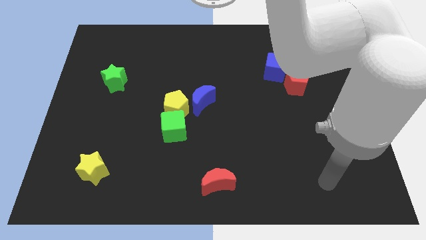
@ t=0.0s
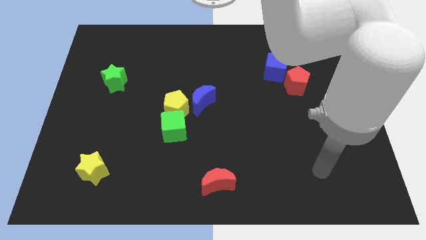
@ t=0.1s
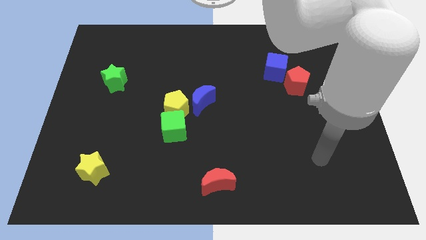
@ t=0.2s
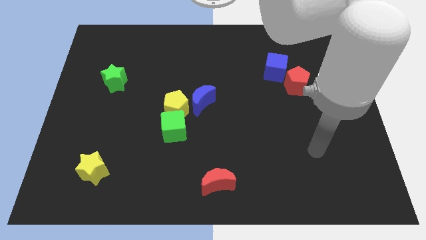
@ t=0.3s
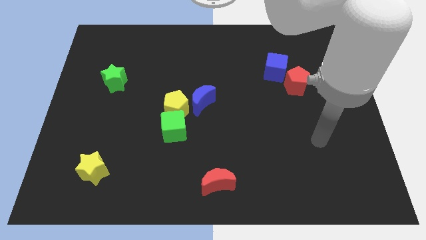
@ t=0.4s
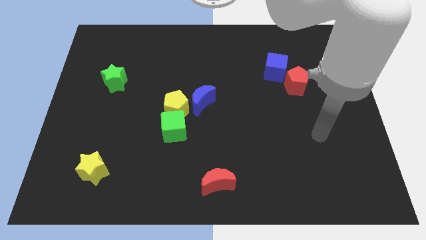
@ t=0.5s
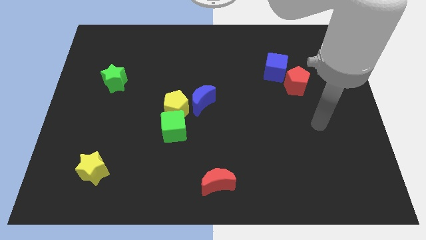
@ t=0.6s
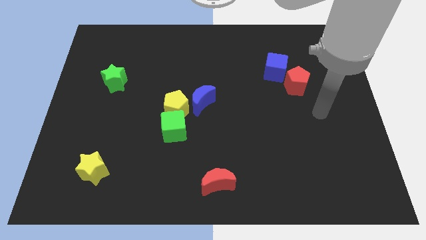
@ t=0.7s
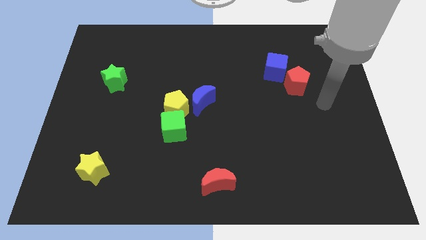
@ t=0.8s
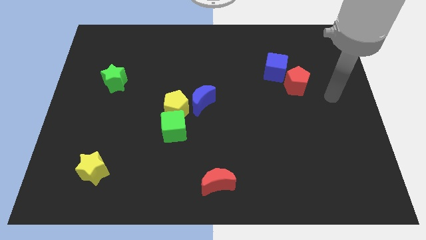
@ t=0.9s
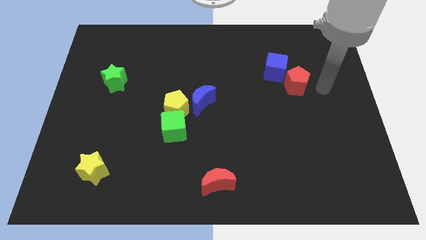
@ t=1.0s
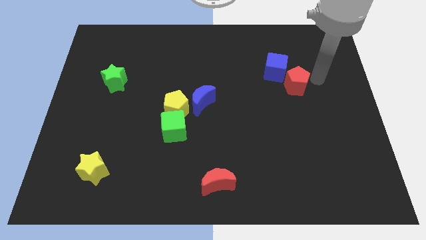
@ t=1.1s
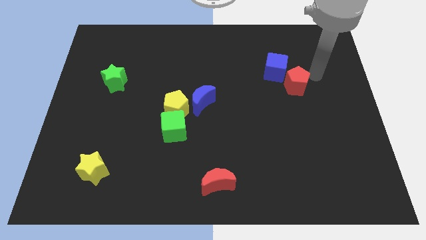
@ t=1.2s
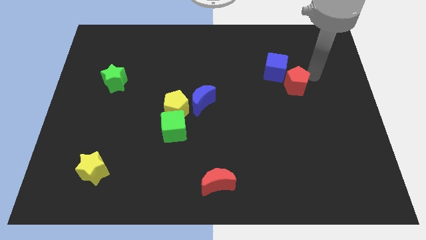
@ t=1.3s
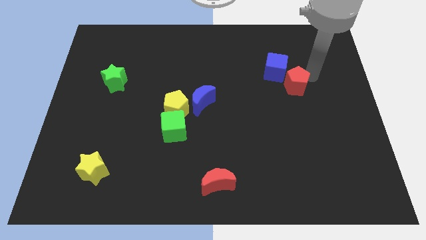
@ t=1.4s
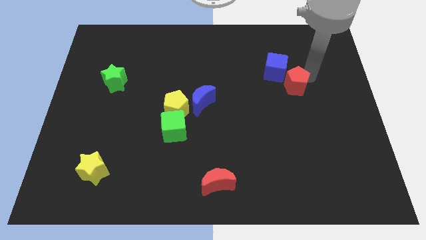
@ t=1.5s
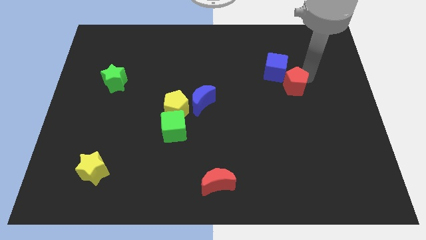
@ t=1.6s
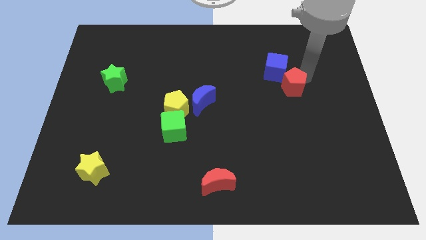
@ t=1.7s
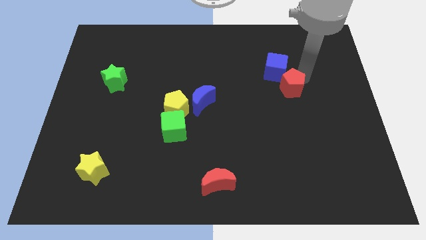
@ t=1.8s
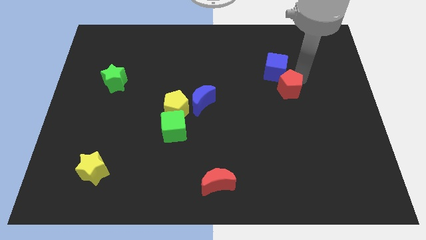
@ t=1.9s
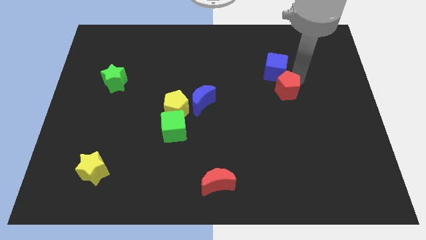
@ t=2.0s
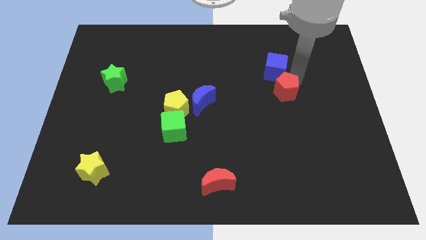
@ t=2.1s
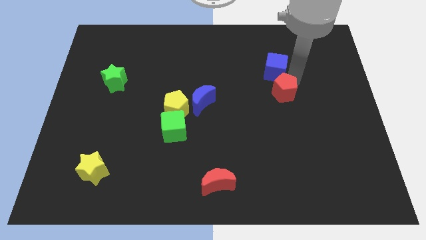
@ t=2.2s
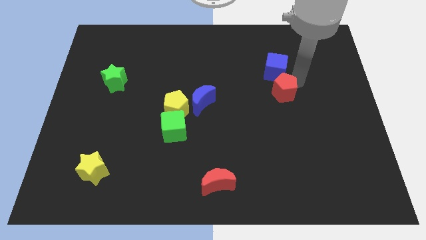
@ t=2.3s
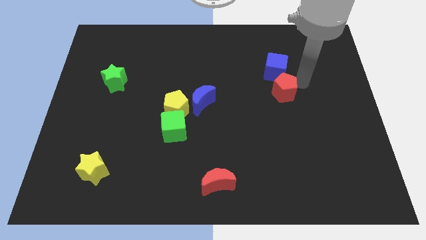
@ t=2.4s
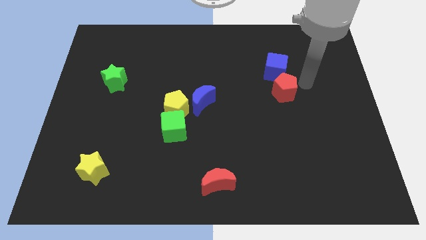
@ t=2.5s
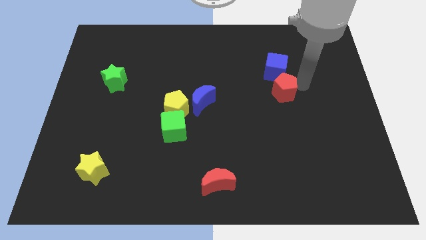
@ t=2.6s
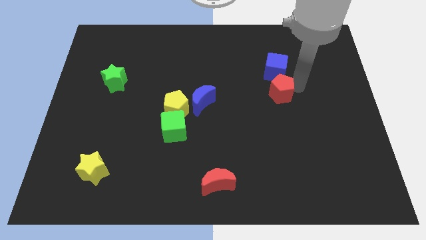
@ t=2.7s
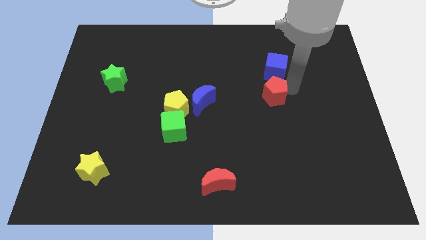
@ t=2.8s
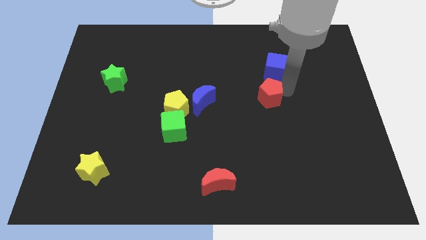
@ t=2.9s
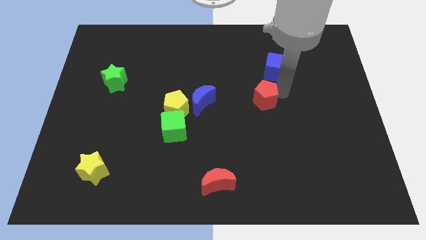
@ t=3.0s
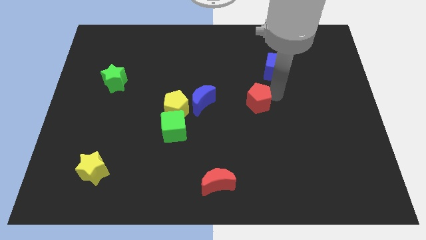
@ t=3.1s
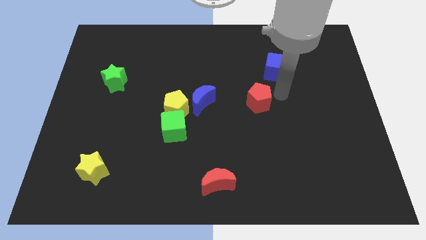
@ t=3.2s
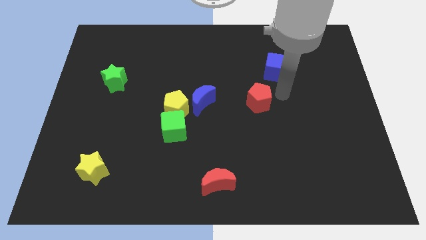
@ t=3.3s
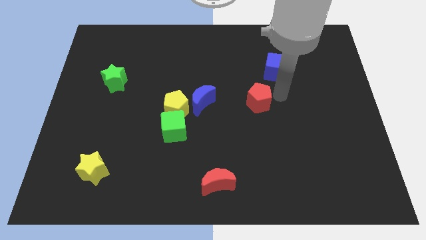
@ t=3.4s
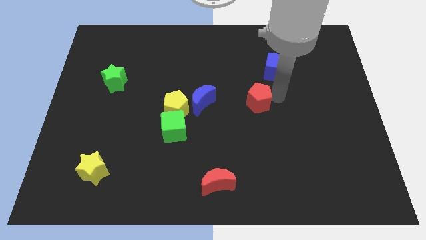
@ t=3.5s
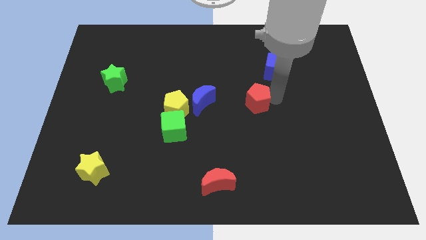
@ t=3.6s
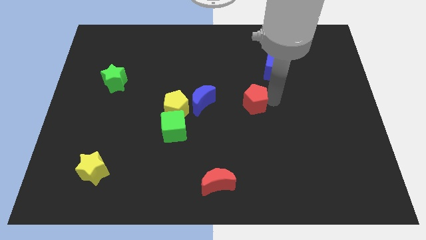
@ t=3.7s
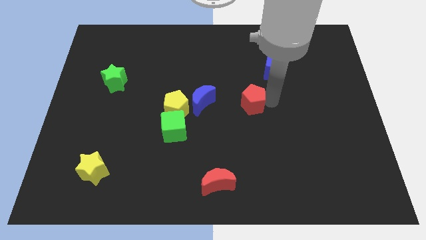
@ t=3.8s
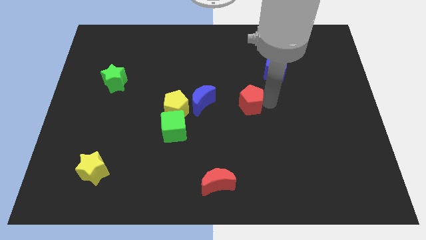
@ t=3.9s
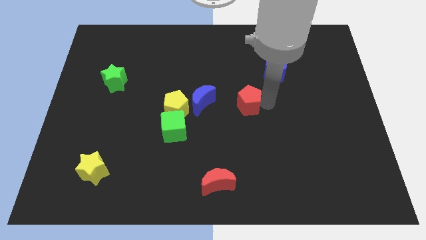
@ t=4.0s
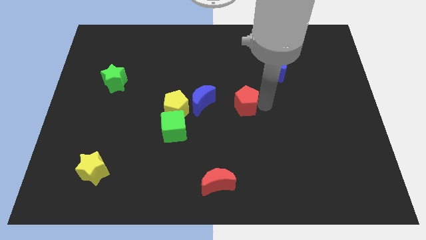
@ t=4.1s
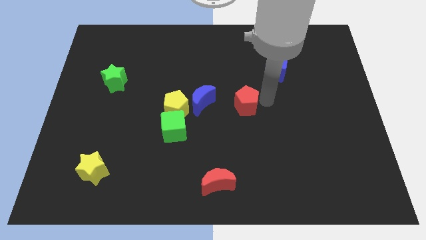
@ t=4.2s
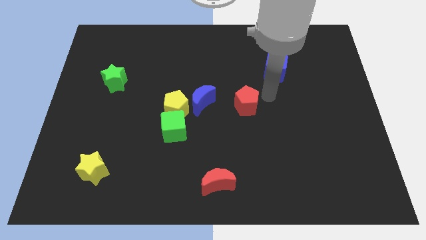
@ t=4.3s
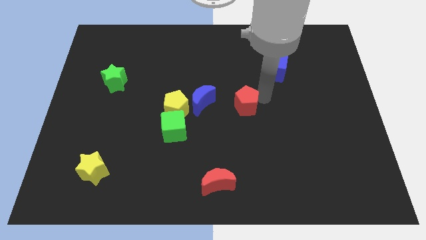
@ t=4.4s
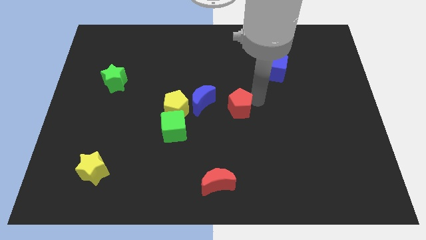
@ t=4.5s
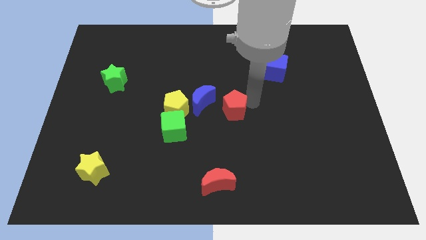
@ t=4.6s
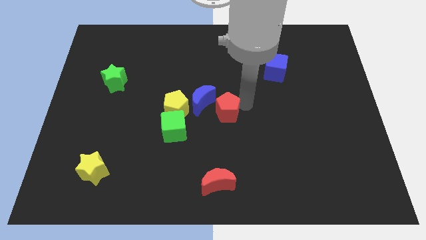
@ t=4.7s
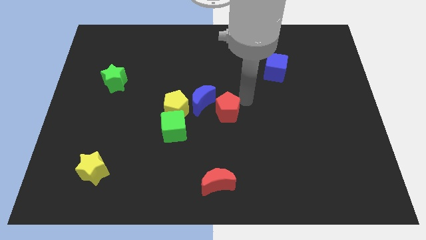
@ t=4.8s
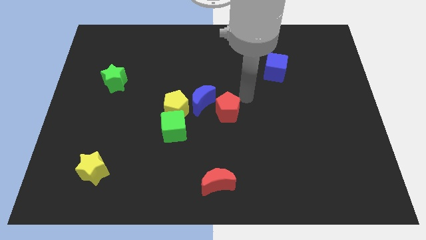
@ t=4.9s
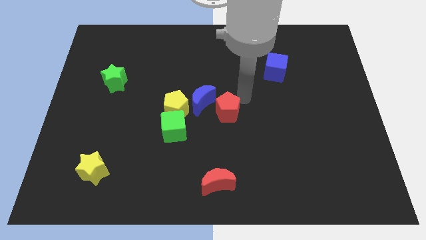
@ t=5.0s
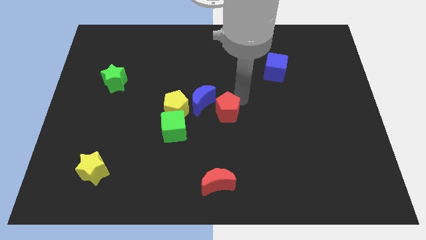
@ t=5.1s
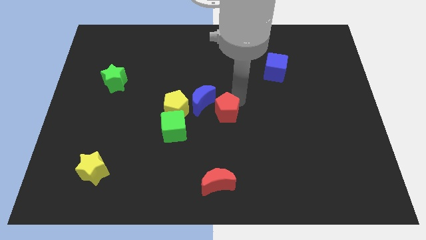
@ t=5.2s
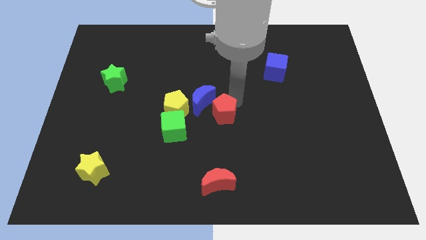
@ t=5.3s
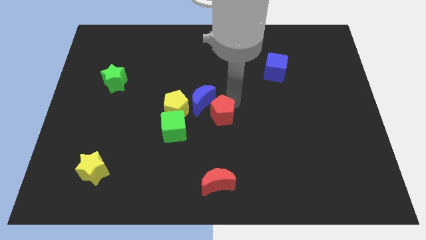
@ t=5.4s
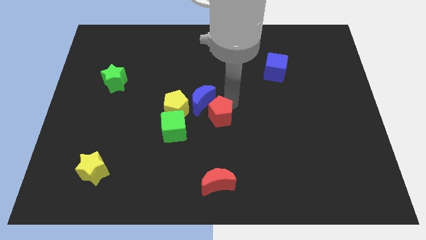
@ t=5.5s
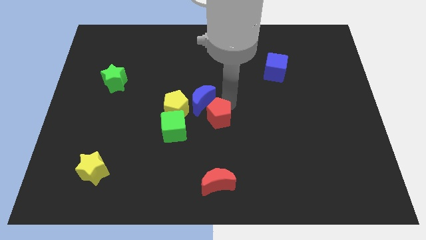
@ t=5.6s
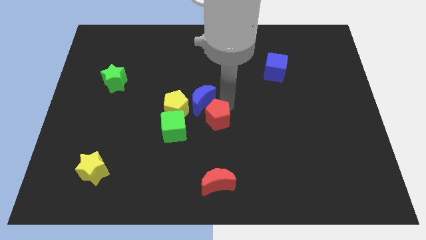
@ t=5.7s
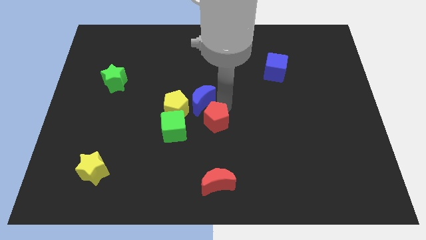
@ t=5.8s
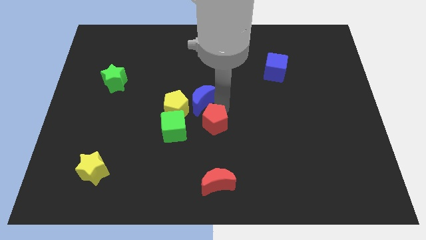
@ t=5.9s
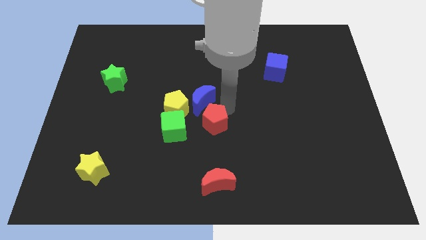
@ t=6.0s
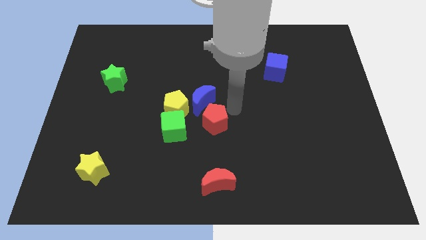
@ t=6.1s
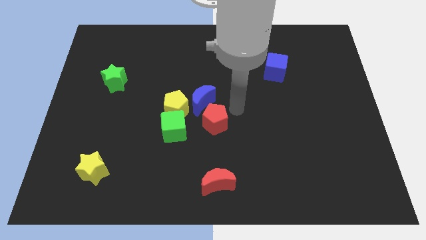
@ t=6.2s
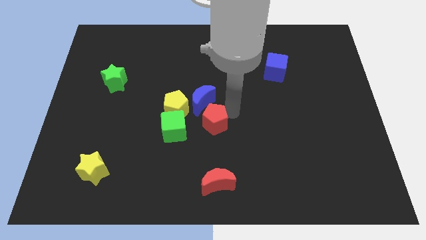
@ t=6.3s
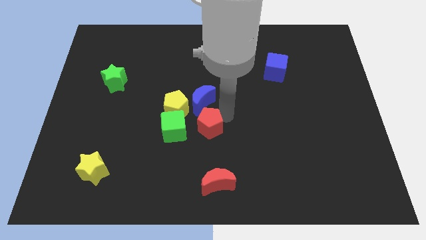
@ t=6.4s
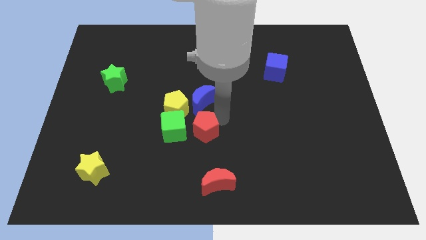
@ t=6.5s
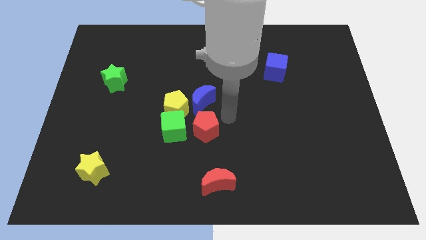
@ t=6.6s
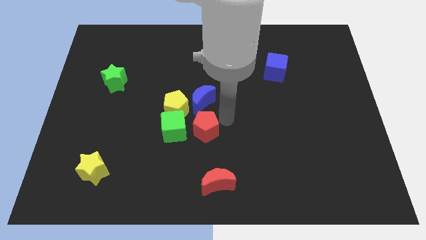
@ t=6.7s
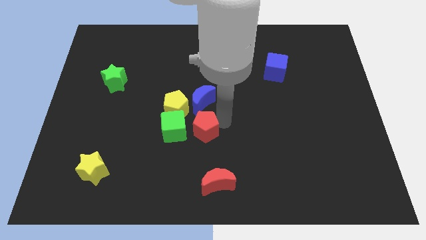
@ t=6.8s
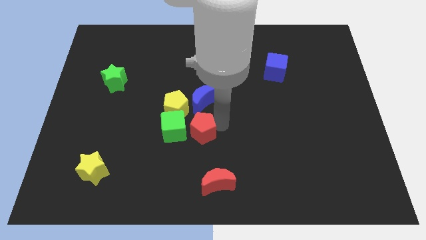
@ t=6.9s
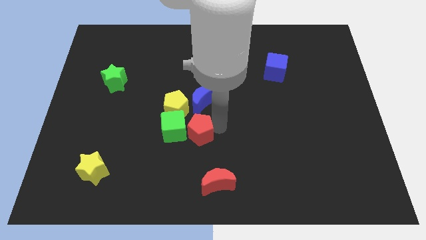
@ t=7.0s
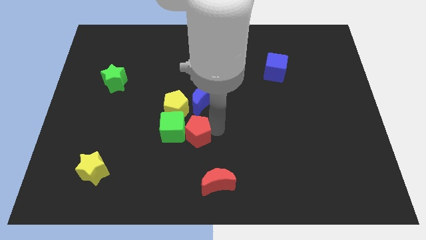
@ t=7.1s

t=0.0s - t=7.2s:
put the red pentagon to the bottom of the yellow pentagon

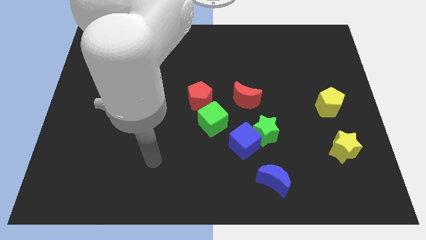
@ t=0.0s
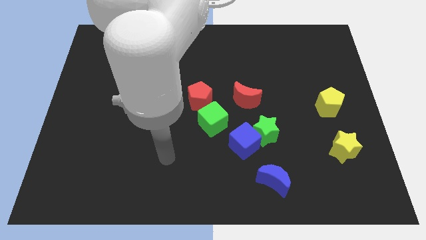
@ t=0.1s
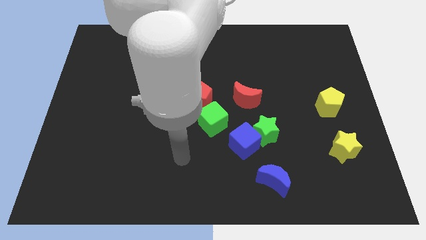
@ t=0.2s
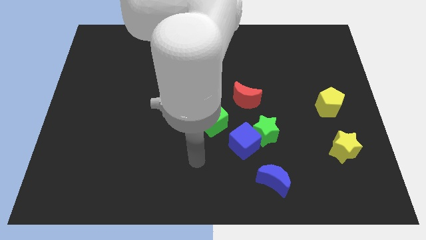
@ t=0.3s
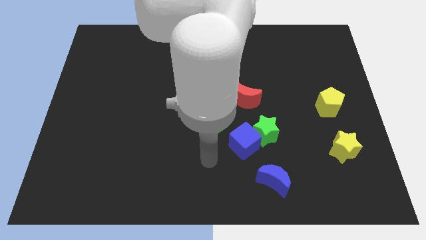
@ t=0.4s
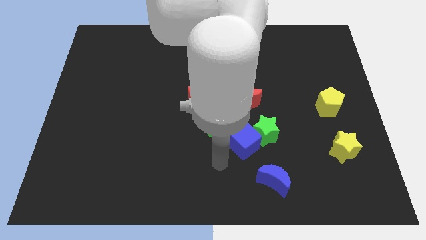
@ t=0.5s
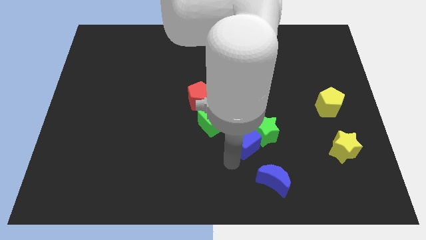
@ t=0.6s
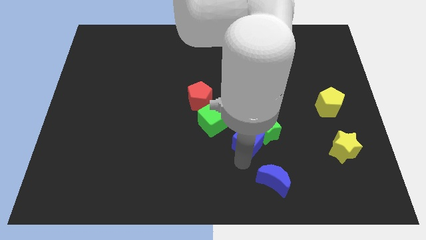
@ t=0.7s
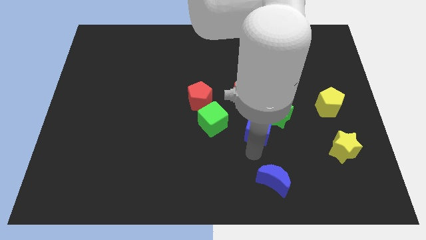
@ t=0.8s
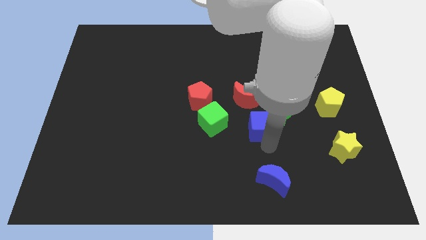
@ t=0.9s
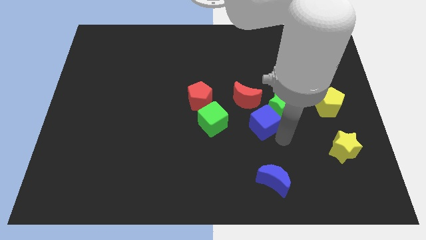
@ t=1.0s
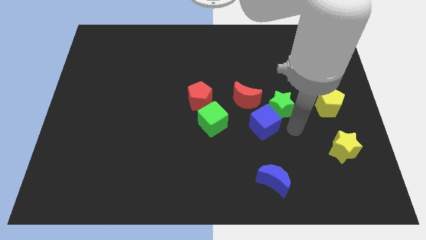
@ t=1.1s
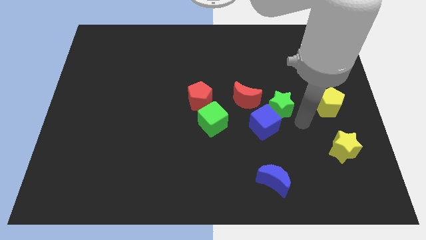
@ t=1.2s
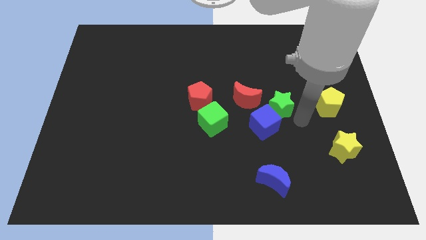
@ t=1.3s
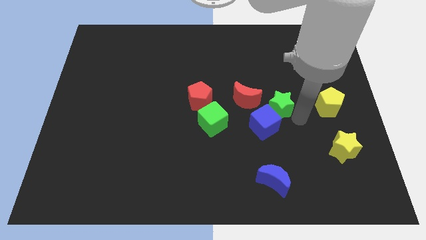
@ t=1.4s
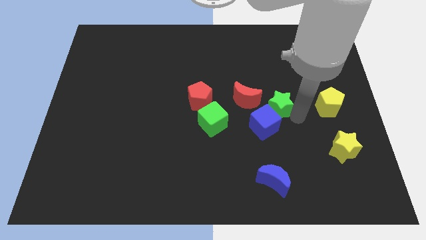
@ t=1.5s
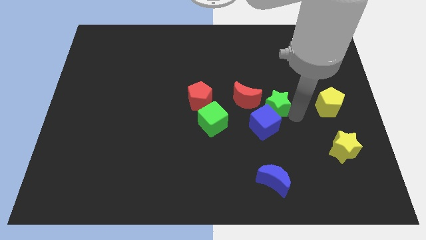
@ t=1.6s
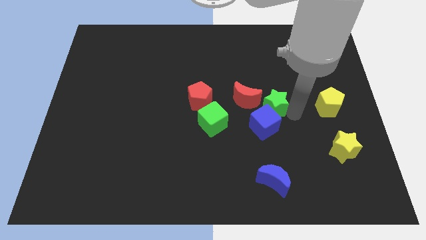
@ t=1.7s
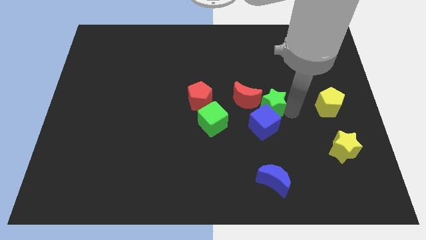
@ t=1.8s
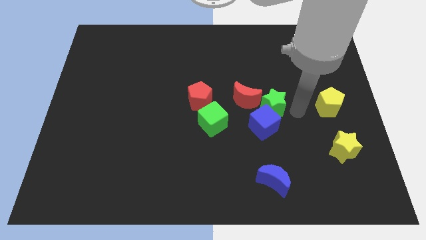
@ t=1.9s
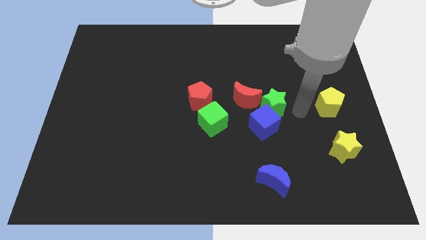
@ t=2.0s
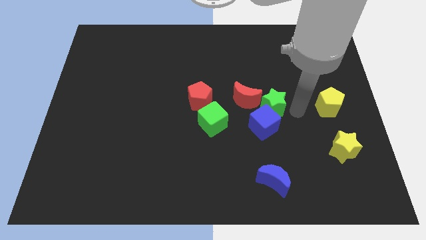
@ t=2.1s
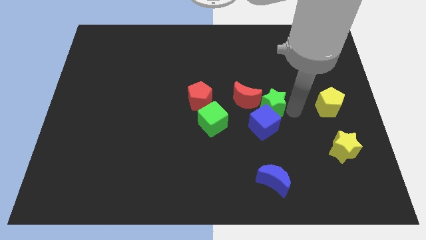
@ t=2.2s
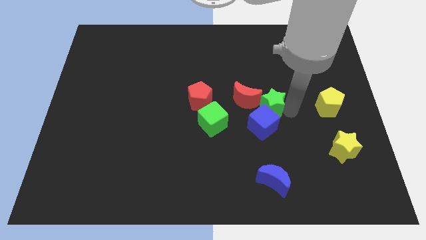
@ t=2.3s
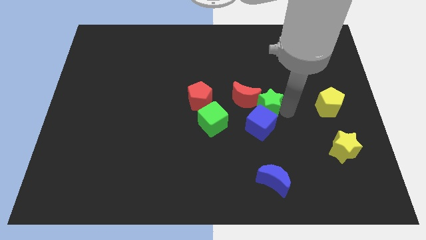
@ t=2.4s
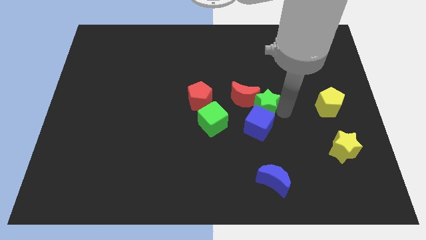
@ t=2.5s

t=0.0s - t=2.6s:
push the green star right of the red pentagon
